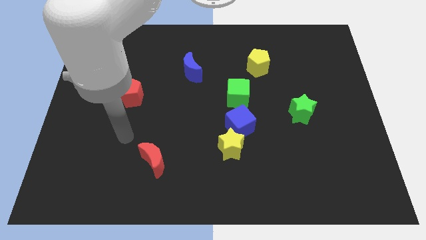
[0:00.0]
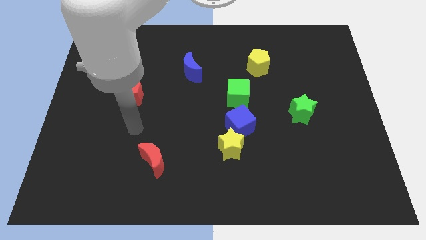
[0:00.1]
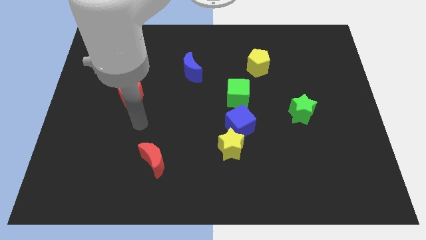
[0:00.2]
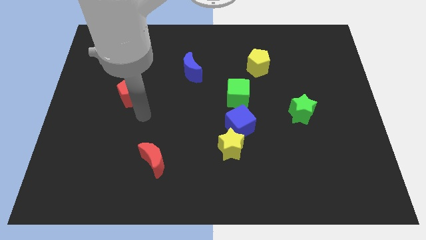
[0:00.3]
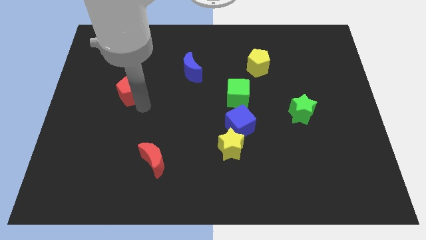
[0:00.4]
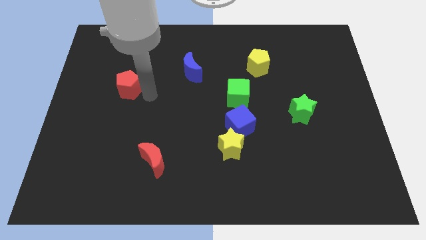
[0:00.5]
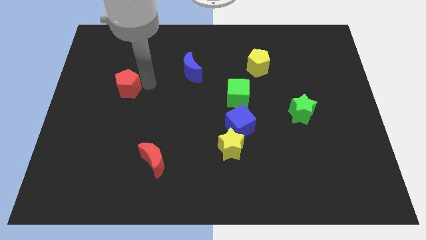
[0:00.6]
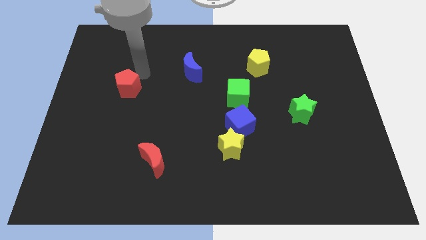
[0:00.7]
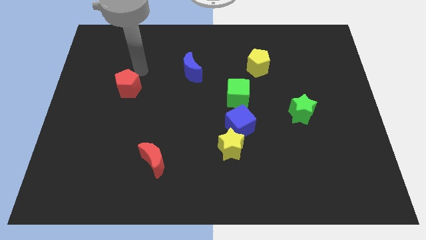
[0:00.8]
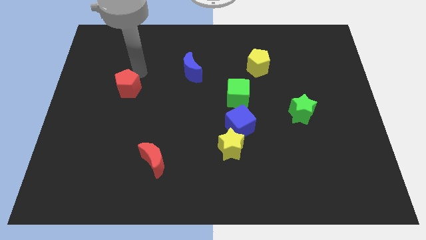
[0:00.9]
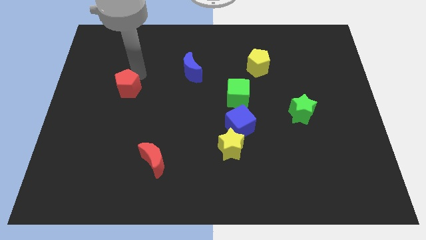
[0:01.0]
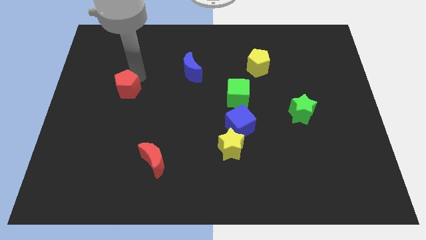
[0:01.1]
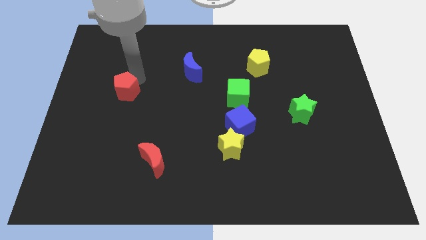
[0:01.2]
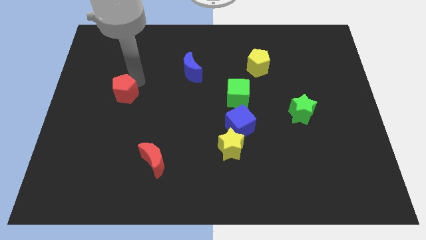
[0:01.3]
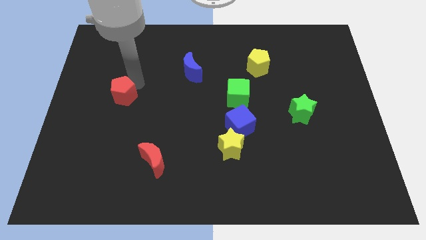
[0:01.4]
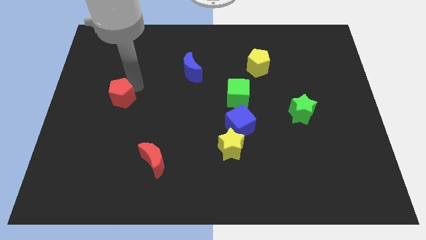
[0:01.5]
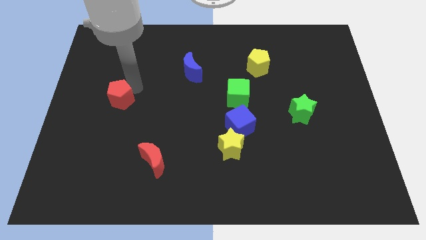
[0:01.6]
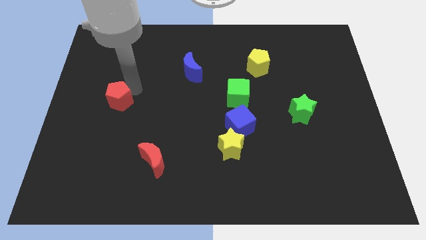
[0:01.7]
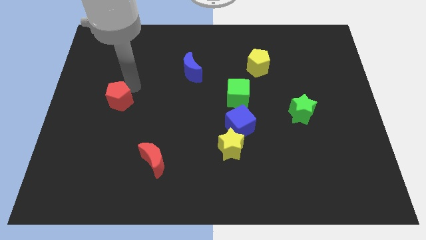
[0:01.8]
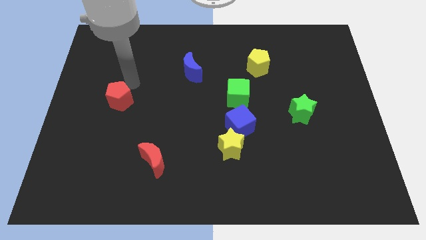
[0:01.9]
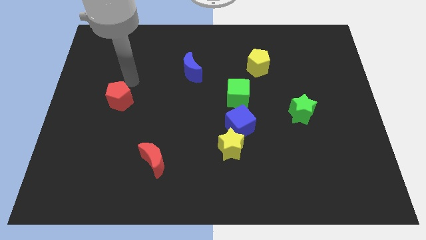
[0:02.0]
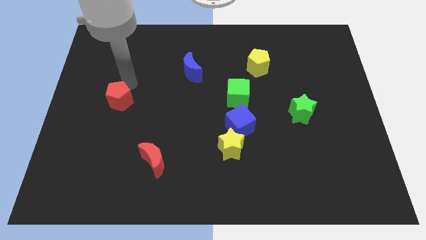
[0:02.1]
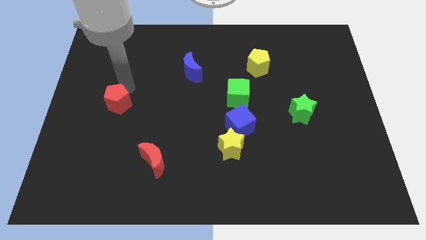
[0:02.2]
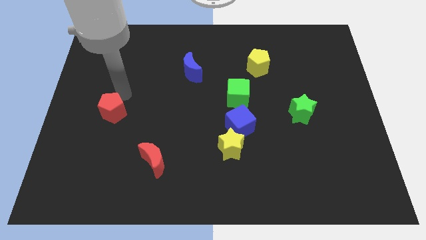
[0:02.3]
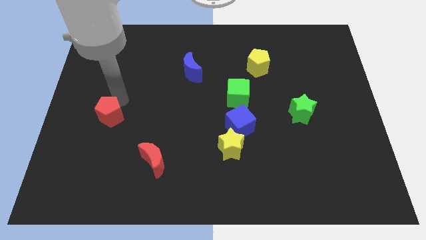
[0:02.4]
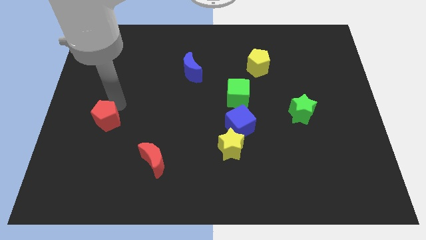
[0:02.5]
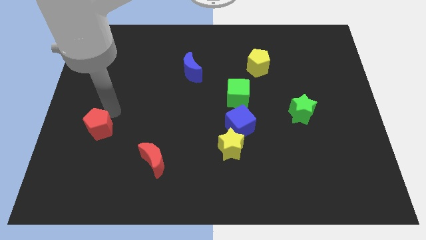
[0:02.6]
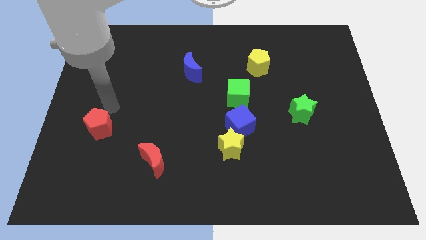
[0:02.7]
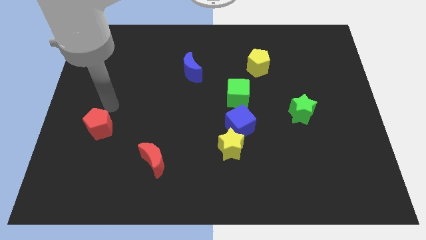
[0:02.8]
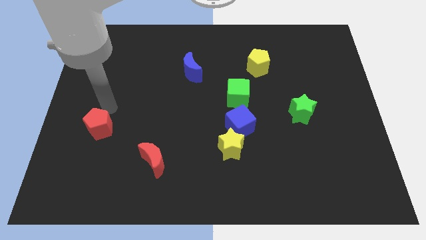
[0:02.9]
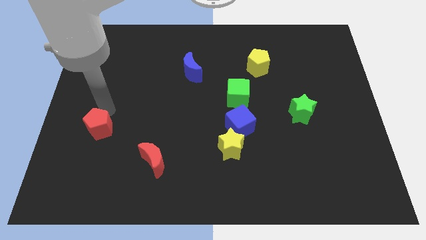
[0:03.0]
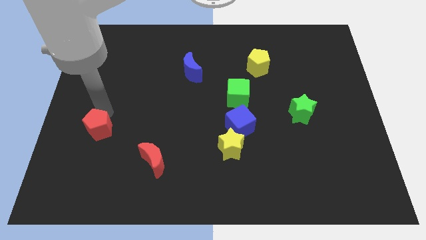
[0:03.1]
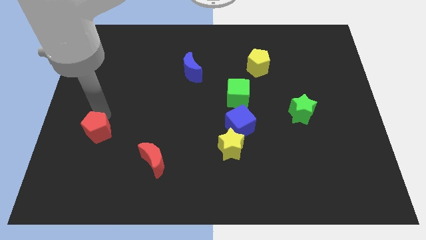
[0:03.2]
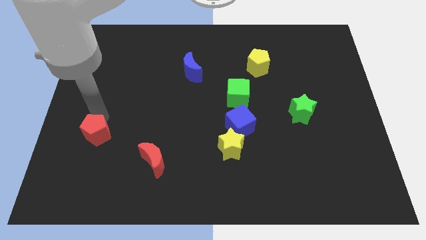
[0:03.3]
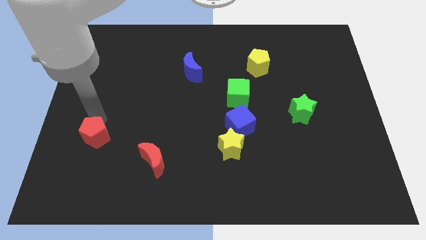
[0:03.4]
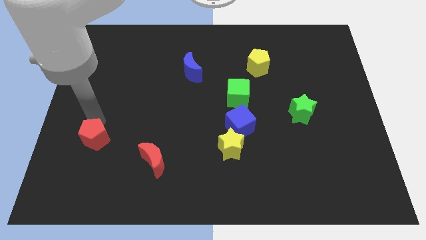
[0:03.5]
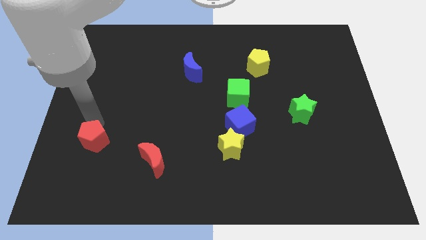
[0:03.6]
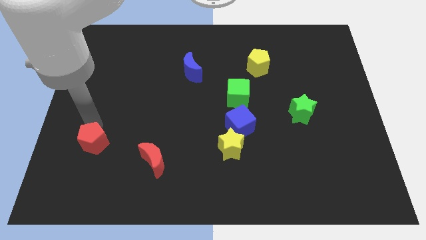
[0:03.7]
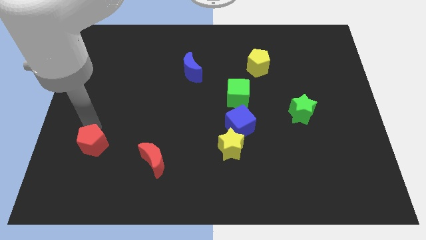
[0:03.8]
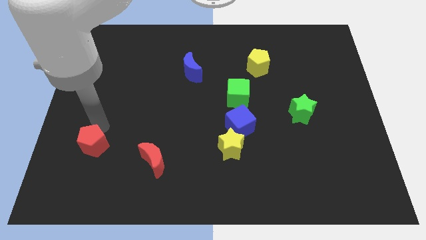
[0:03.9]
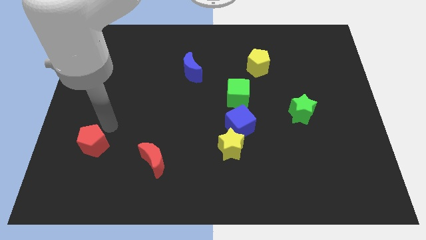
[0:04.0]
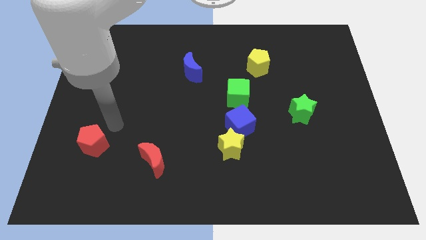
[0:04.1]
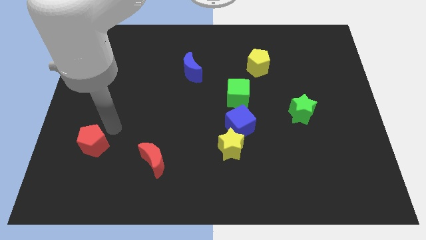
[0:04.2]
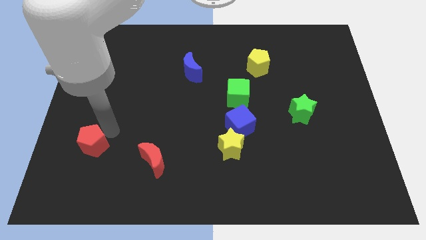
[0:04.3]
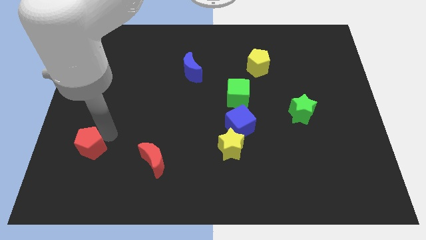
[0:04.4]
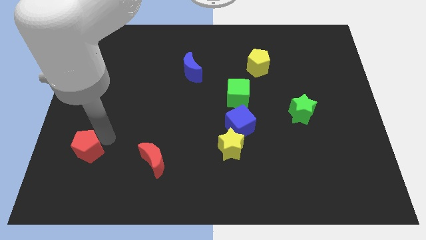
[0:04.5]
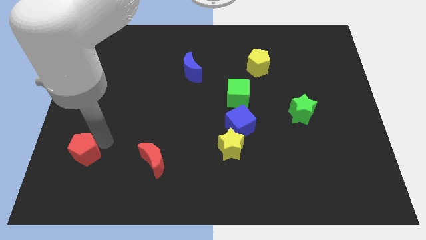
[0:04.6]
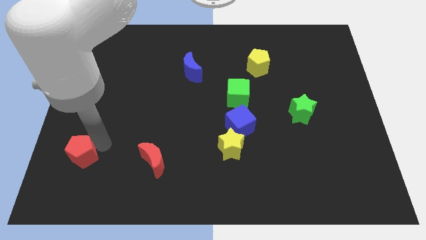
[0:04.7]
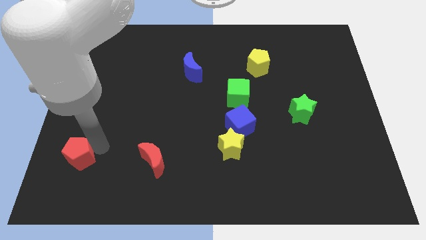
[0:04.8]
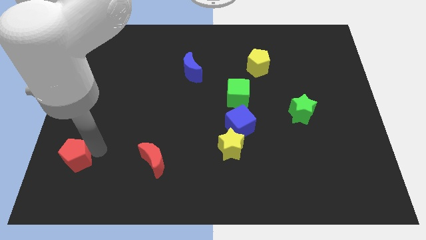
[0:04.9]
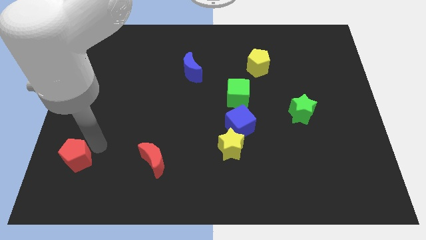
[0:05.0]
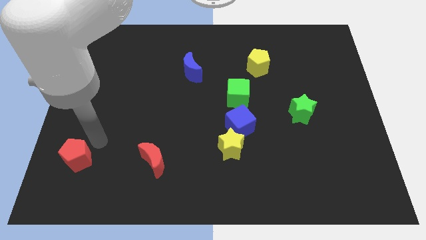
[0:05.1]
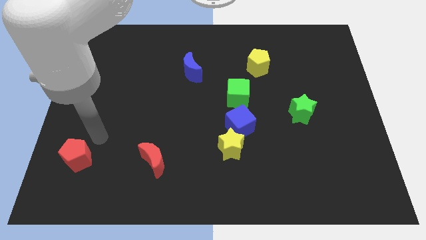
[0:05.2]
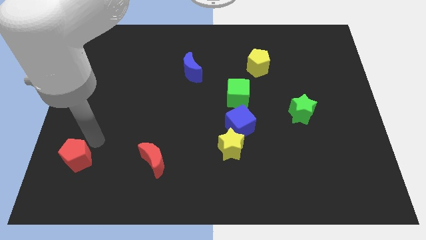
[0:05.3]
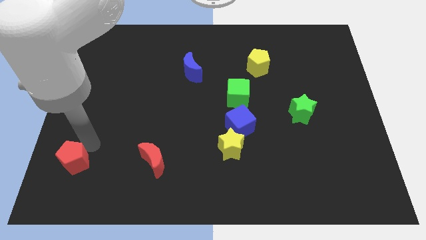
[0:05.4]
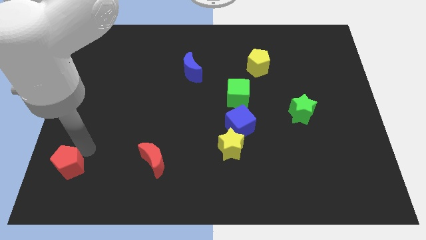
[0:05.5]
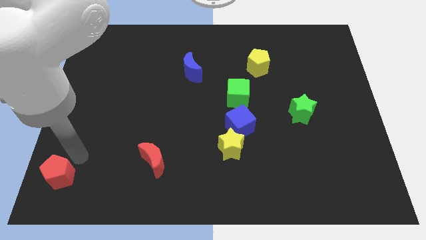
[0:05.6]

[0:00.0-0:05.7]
put the red pentagon to the lower left corner

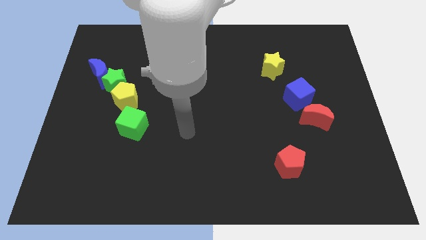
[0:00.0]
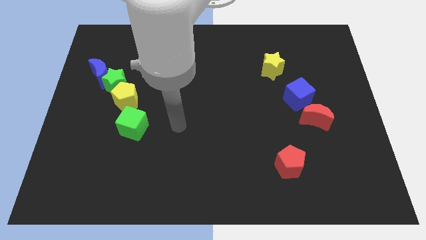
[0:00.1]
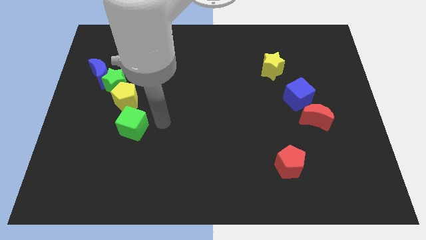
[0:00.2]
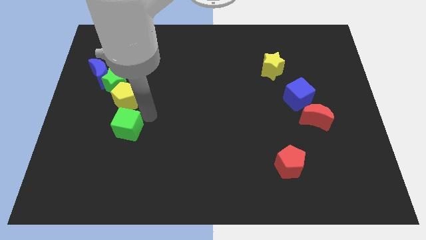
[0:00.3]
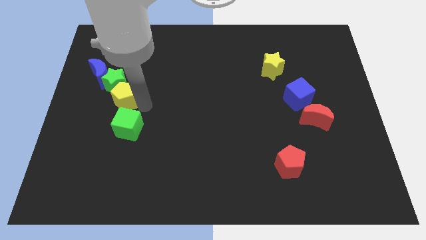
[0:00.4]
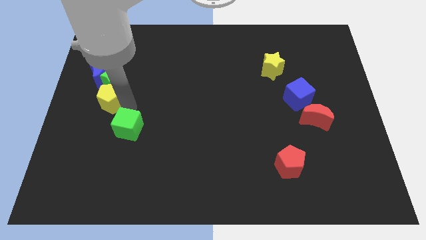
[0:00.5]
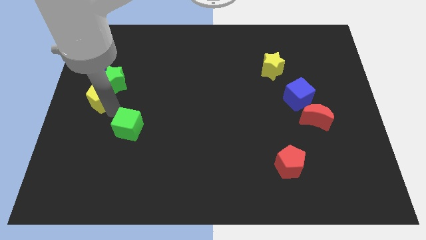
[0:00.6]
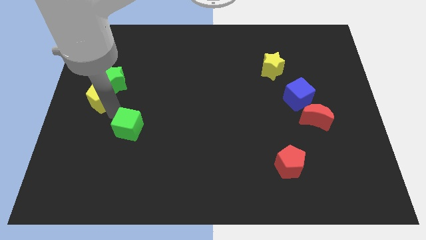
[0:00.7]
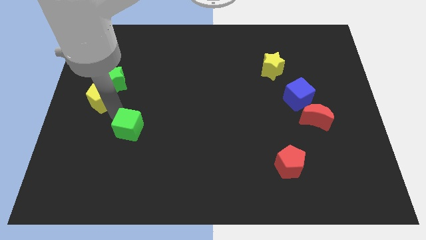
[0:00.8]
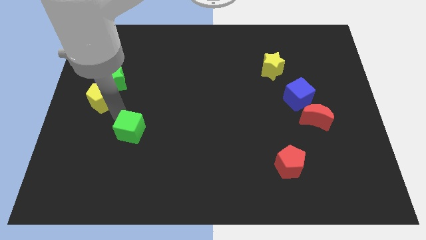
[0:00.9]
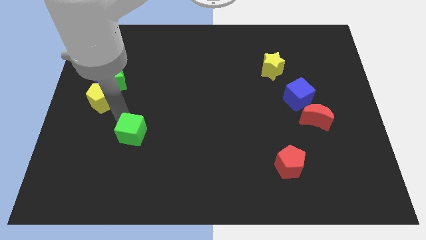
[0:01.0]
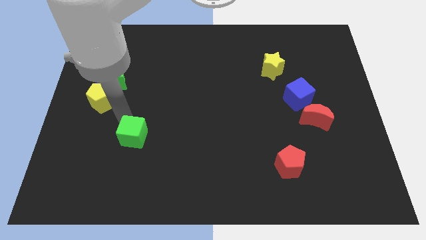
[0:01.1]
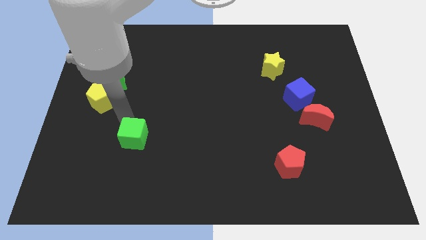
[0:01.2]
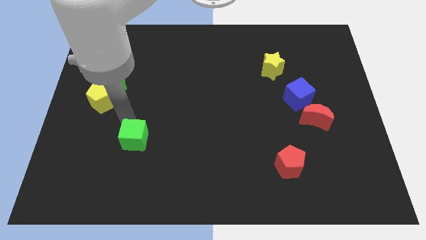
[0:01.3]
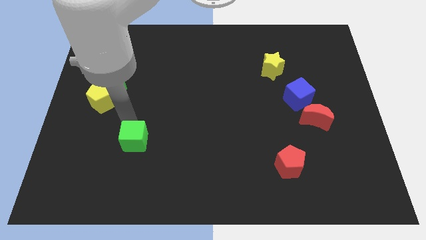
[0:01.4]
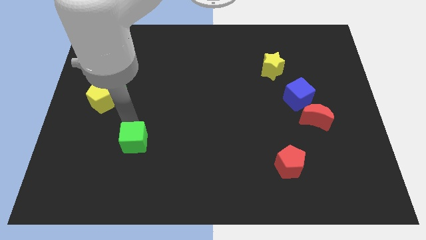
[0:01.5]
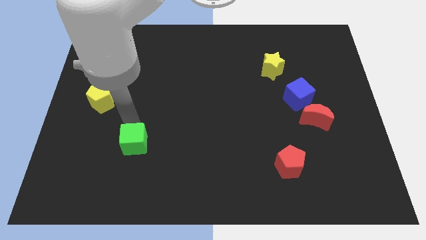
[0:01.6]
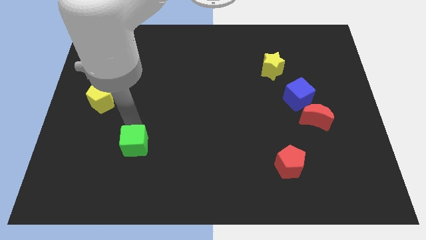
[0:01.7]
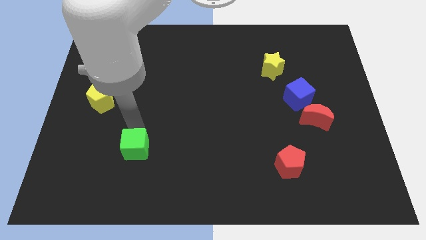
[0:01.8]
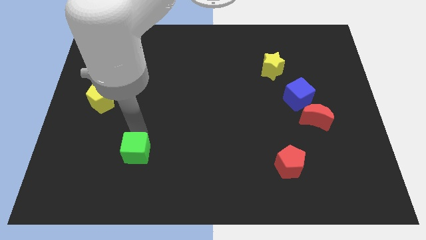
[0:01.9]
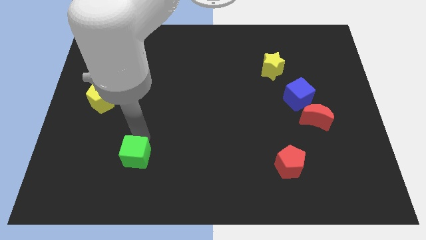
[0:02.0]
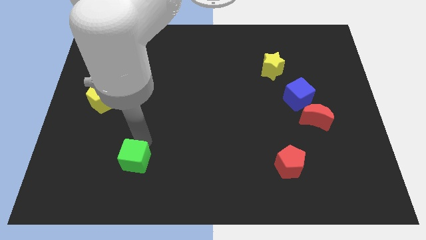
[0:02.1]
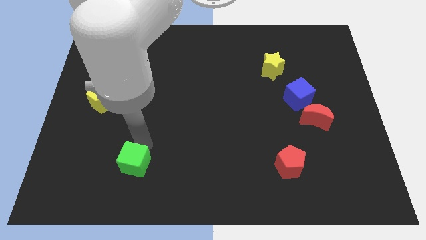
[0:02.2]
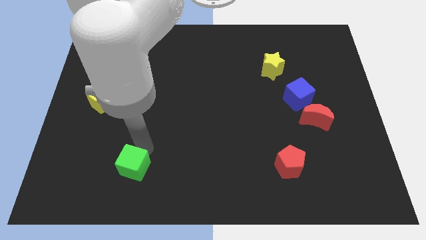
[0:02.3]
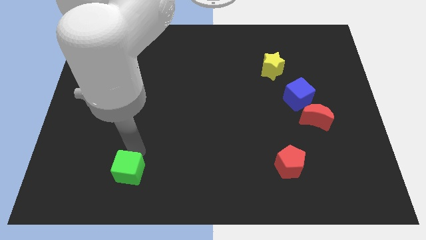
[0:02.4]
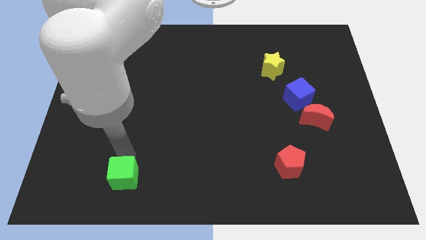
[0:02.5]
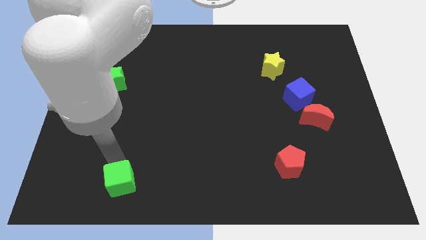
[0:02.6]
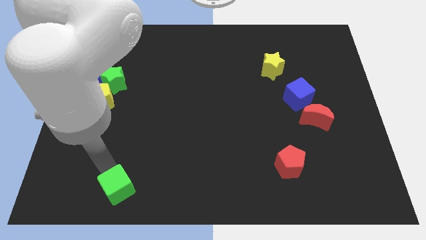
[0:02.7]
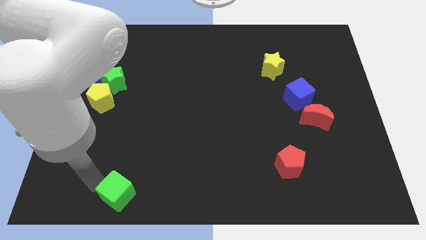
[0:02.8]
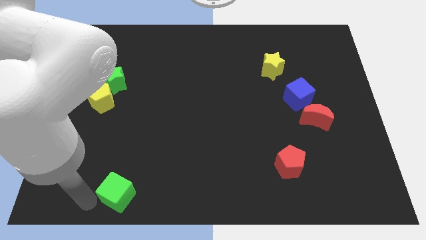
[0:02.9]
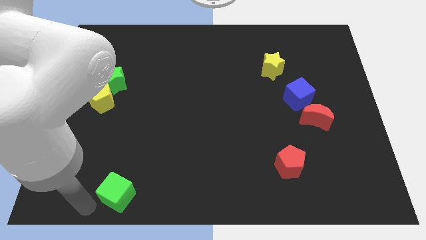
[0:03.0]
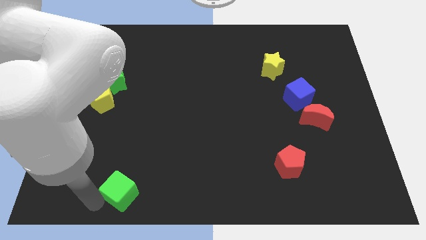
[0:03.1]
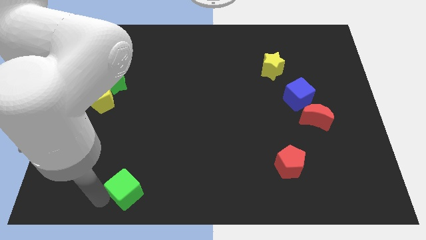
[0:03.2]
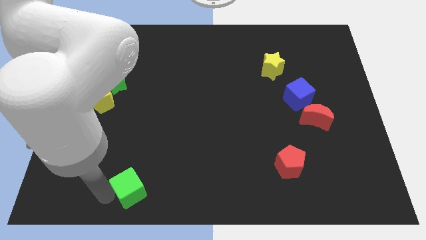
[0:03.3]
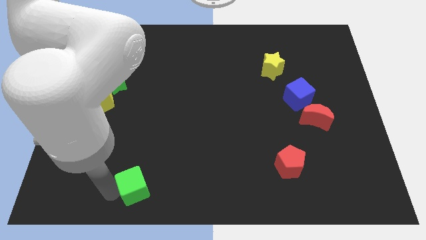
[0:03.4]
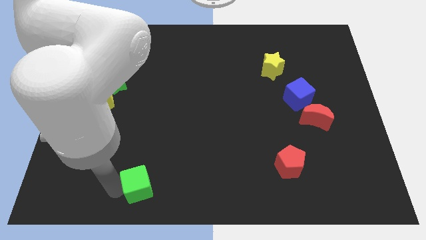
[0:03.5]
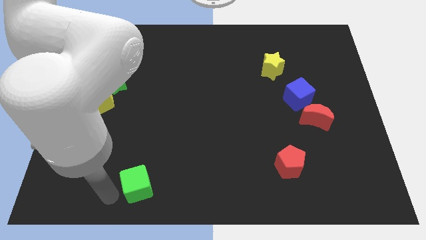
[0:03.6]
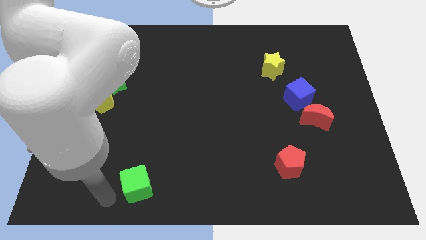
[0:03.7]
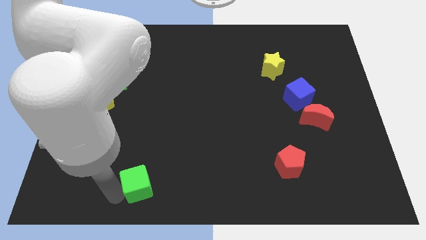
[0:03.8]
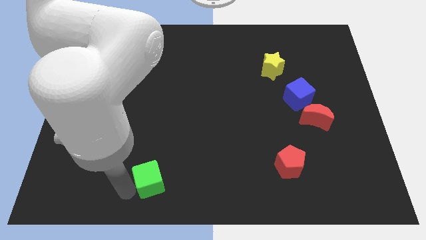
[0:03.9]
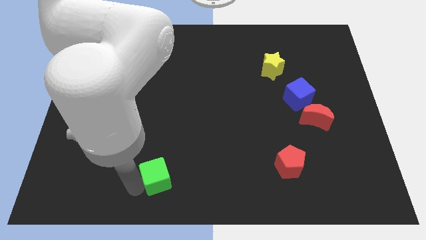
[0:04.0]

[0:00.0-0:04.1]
put the green cube to the bottom side
